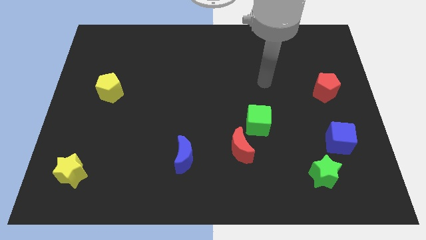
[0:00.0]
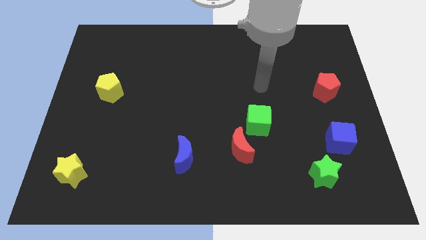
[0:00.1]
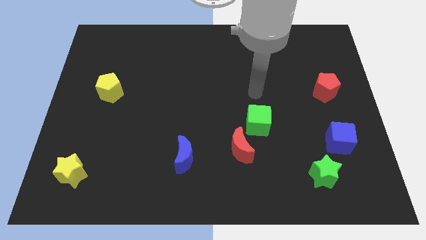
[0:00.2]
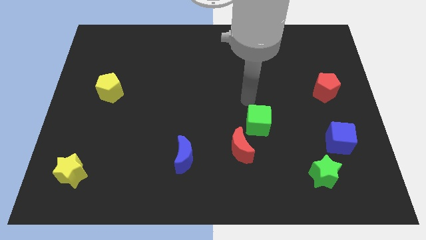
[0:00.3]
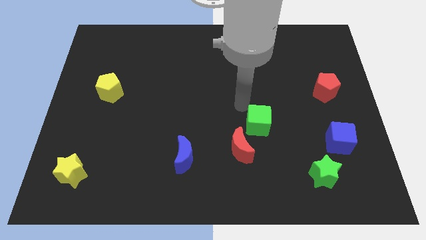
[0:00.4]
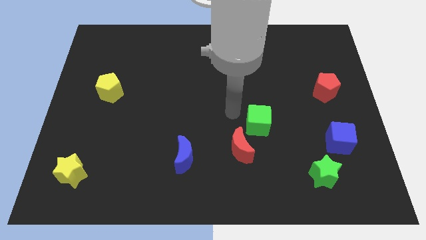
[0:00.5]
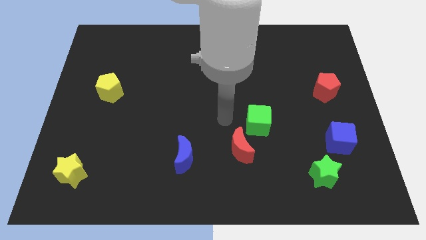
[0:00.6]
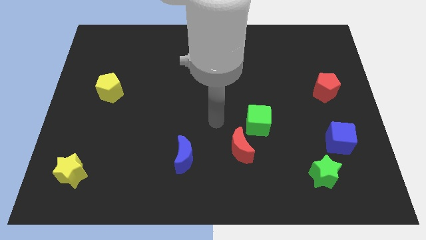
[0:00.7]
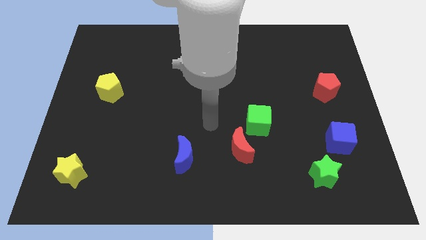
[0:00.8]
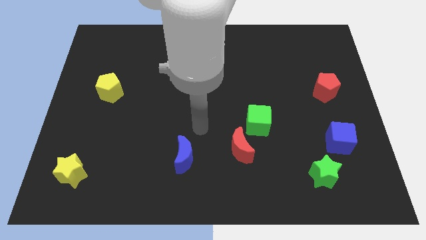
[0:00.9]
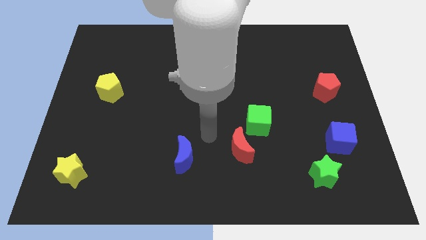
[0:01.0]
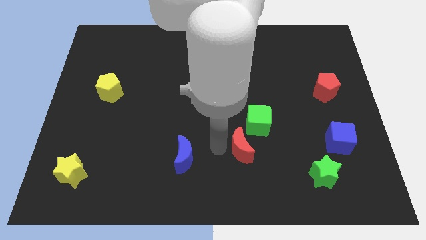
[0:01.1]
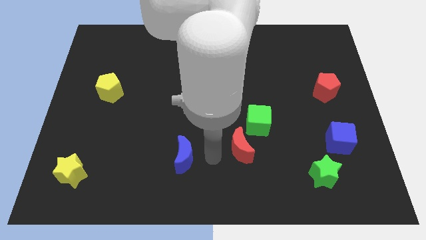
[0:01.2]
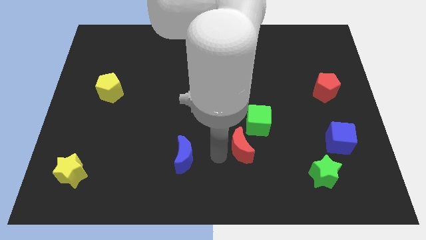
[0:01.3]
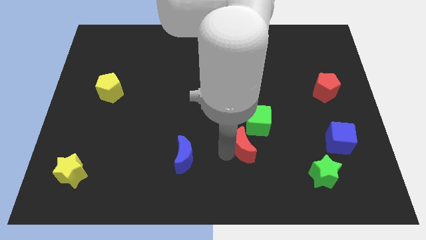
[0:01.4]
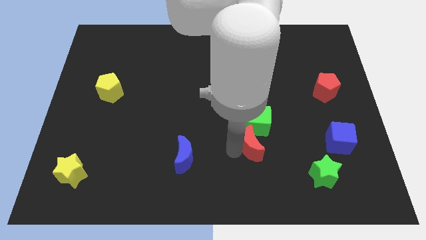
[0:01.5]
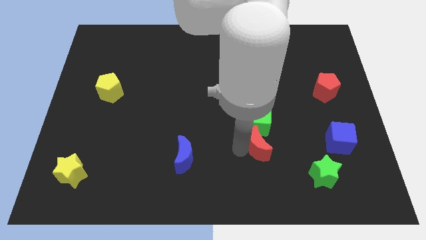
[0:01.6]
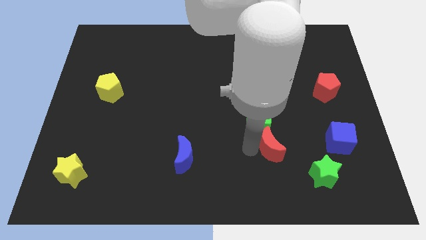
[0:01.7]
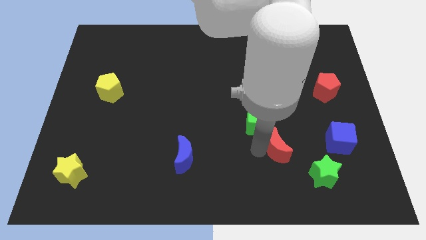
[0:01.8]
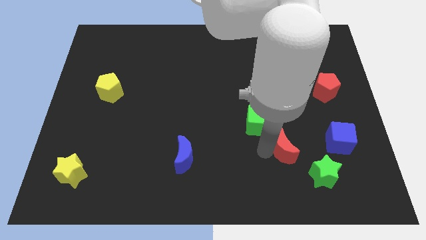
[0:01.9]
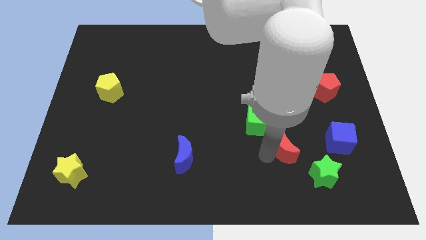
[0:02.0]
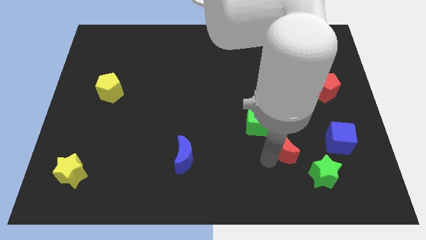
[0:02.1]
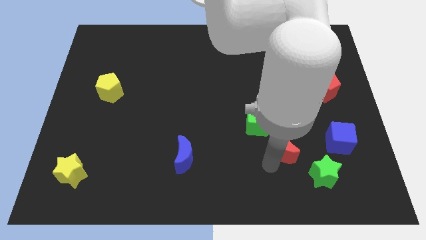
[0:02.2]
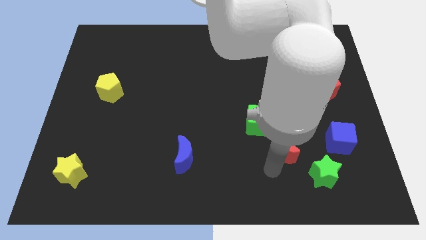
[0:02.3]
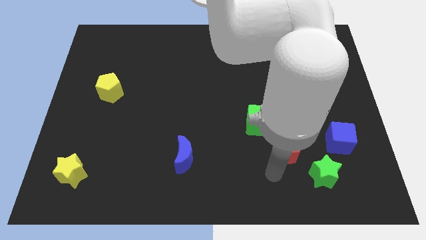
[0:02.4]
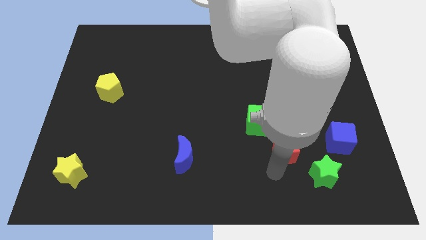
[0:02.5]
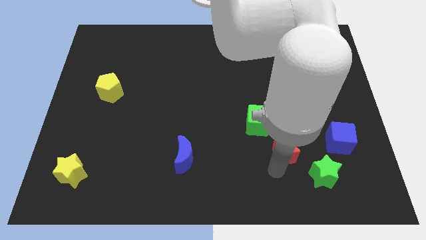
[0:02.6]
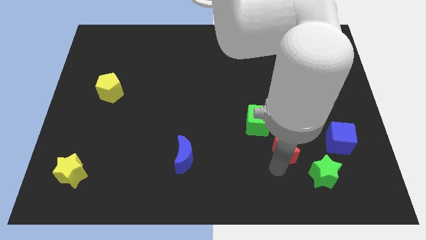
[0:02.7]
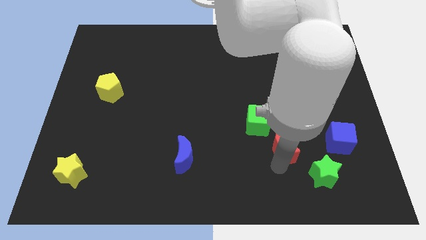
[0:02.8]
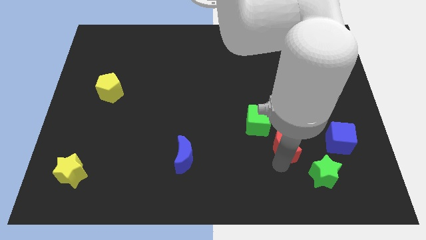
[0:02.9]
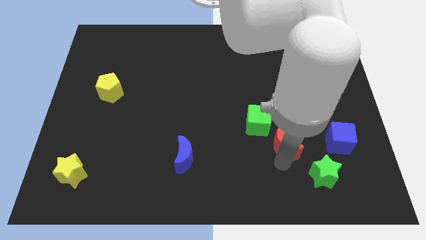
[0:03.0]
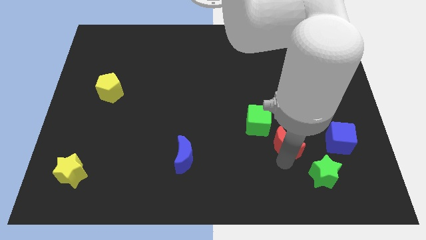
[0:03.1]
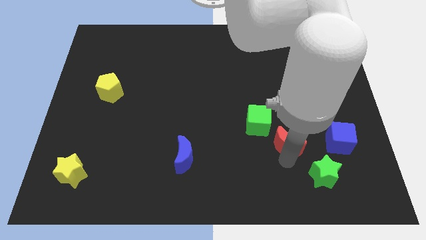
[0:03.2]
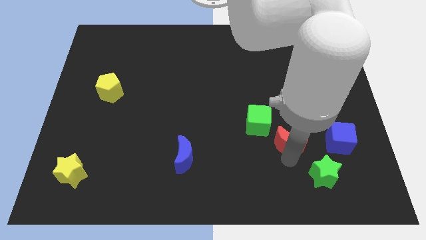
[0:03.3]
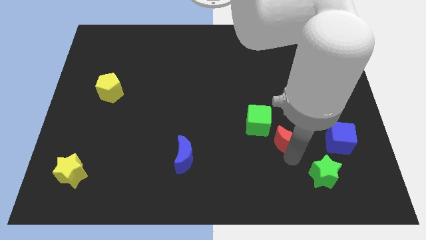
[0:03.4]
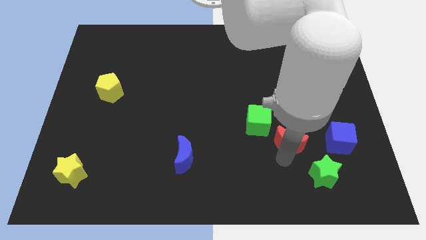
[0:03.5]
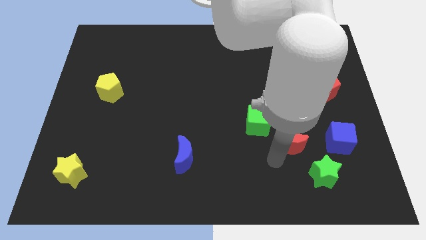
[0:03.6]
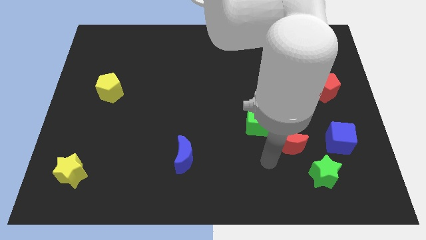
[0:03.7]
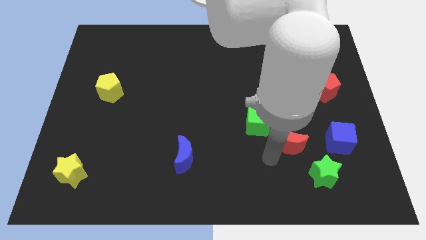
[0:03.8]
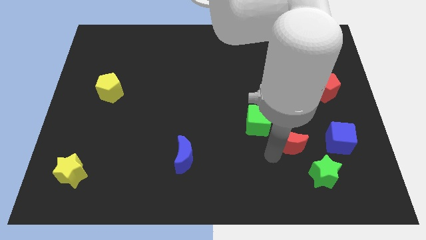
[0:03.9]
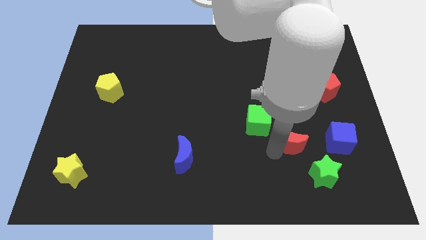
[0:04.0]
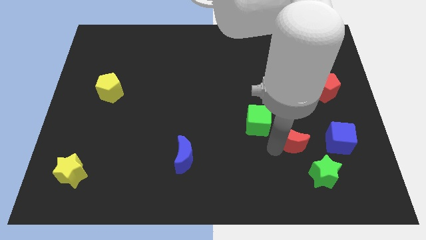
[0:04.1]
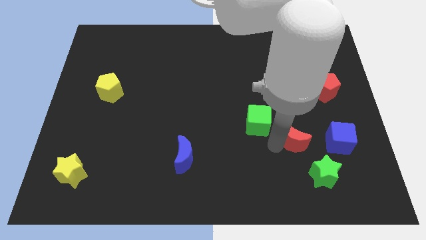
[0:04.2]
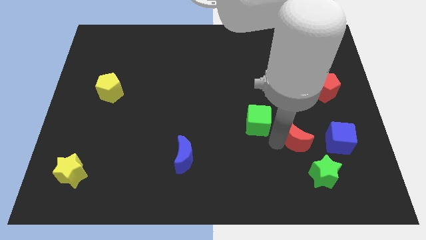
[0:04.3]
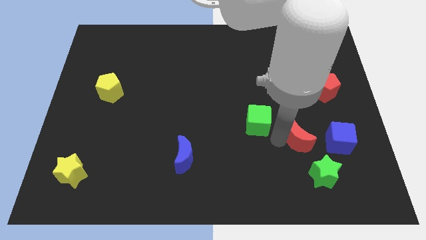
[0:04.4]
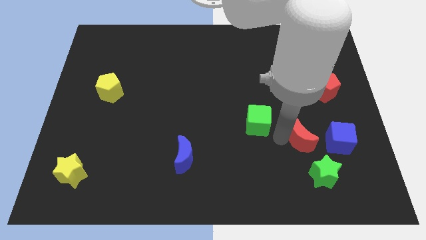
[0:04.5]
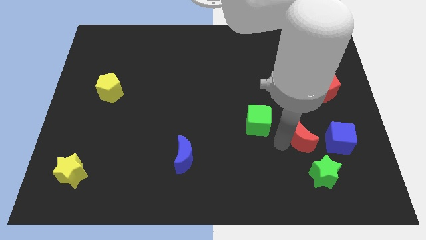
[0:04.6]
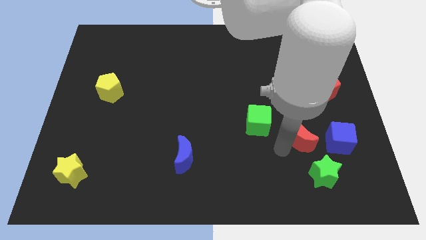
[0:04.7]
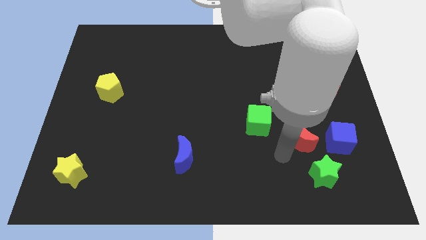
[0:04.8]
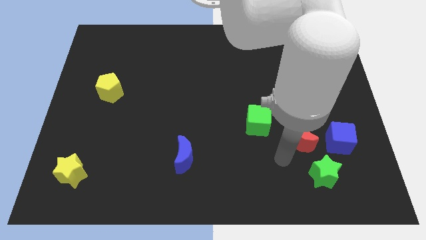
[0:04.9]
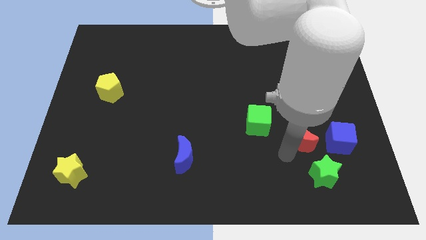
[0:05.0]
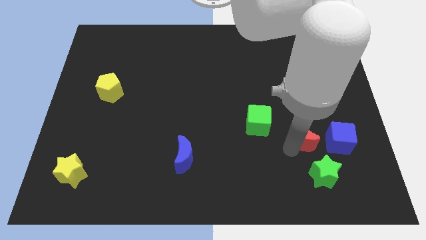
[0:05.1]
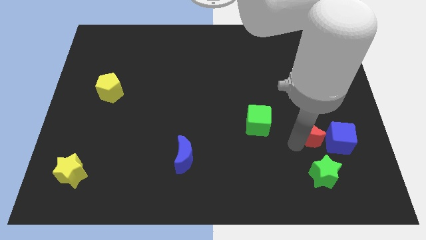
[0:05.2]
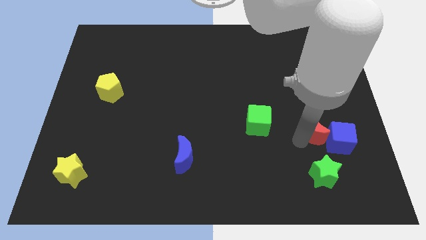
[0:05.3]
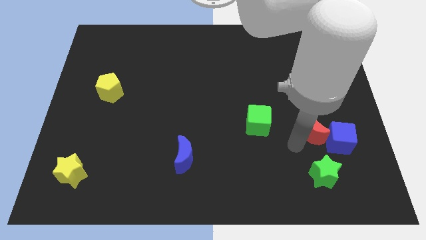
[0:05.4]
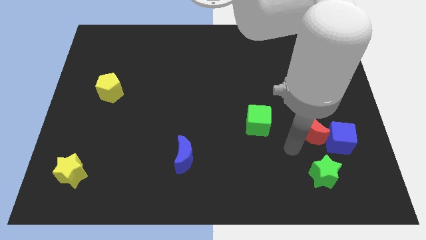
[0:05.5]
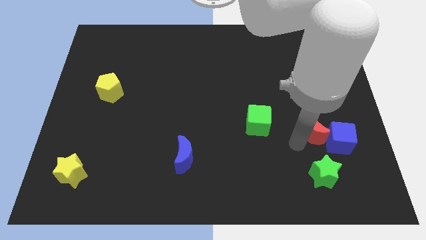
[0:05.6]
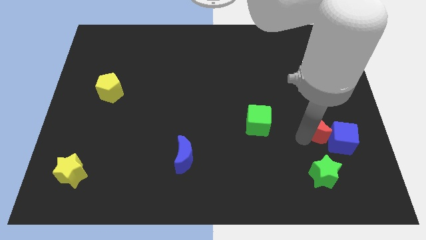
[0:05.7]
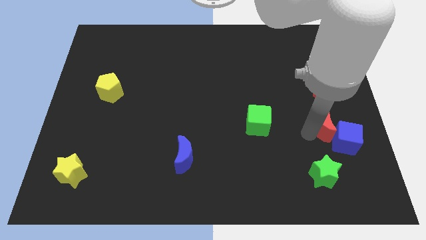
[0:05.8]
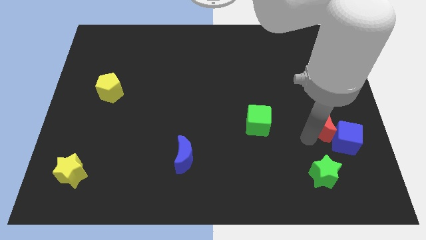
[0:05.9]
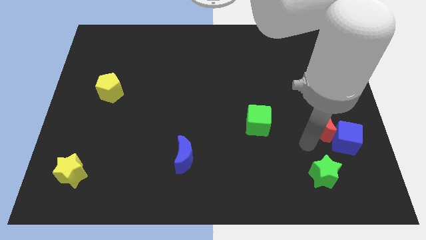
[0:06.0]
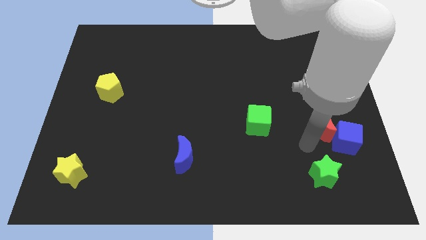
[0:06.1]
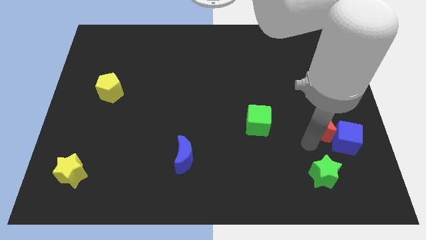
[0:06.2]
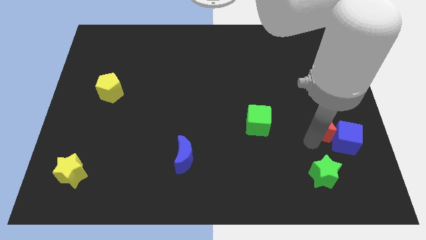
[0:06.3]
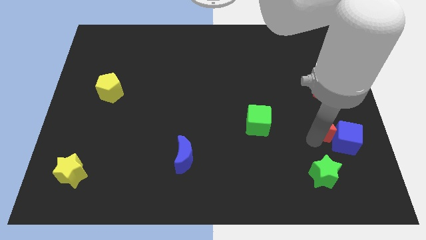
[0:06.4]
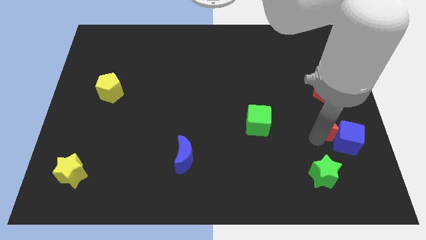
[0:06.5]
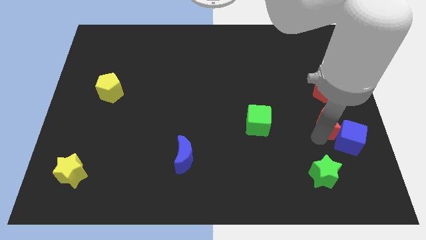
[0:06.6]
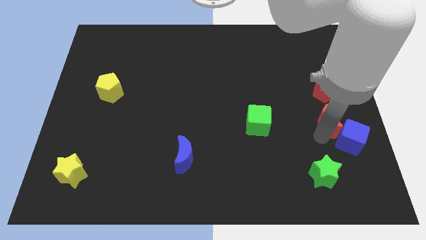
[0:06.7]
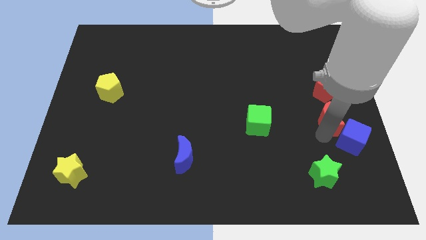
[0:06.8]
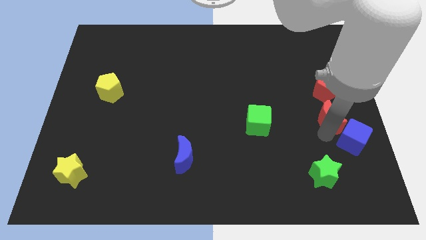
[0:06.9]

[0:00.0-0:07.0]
move the red moon to the right side of the board
